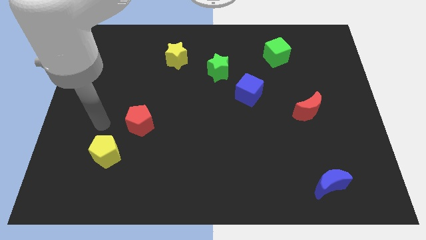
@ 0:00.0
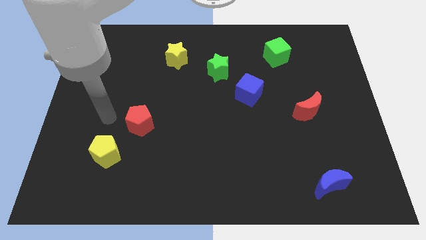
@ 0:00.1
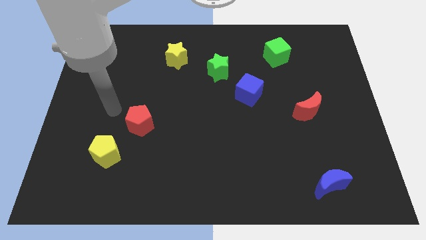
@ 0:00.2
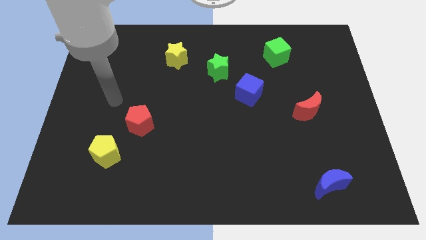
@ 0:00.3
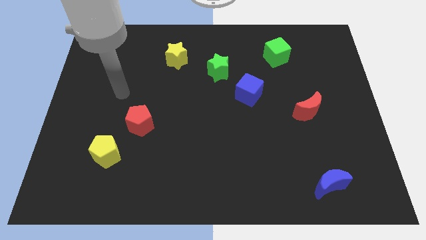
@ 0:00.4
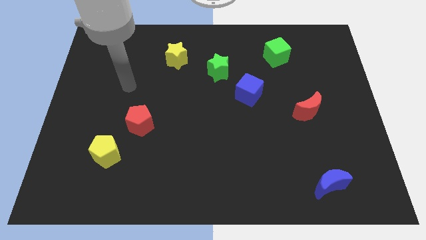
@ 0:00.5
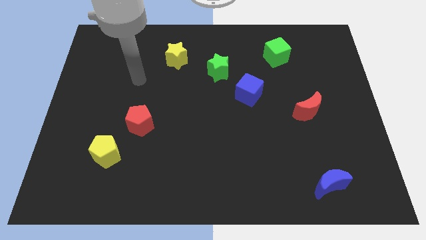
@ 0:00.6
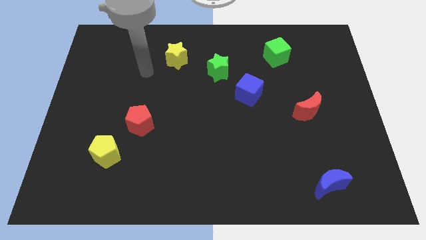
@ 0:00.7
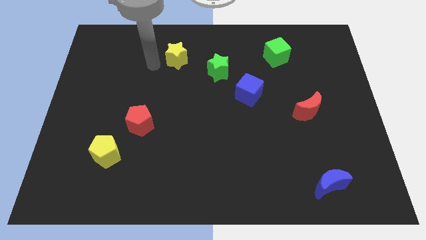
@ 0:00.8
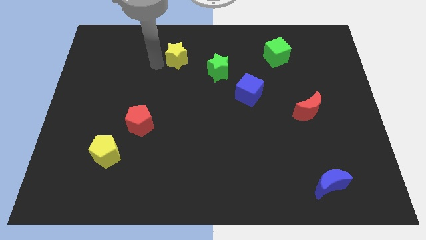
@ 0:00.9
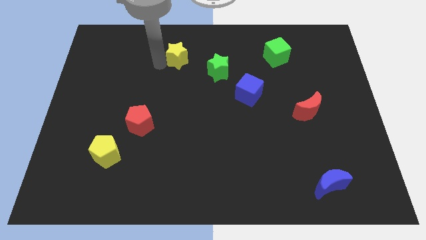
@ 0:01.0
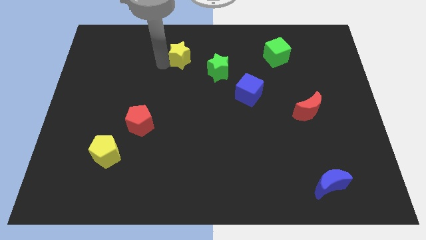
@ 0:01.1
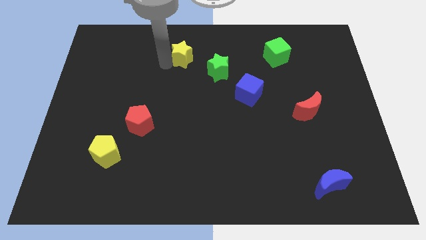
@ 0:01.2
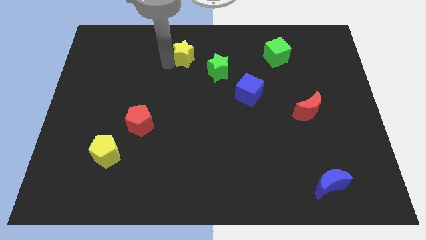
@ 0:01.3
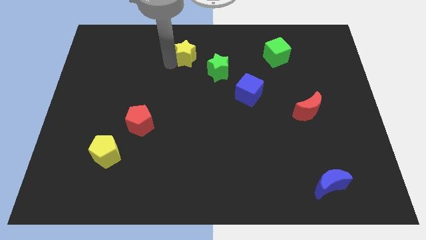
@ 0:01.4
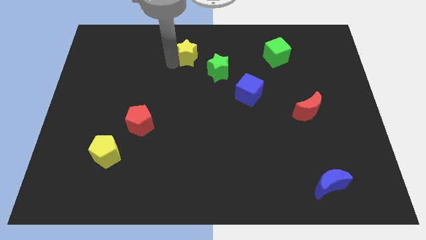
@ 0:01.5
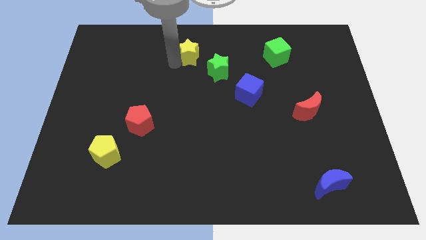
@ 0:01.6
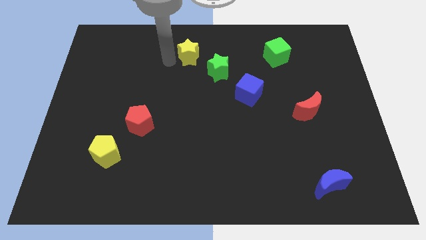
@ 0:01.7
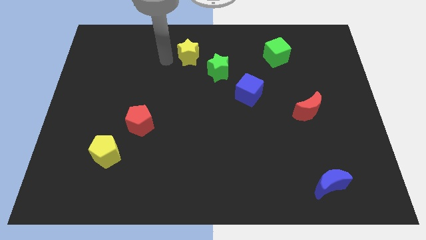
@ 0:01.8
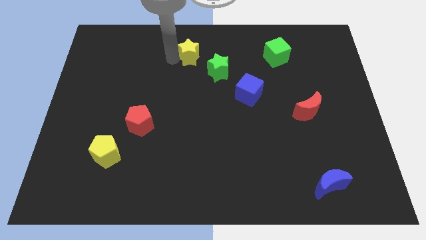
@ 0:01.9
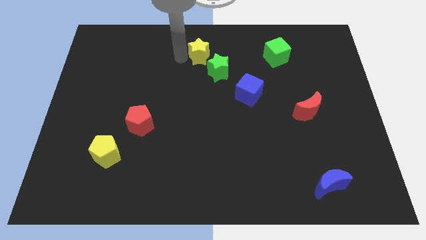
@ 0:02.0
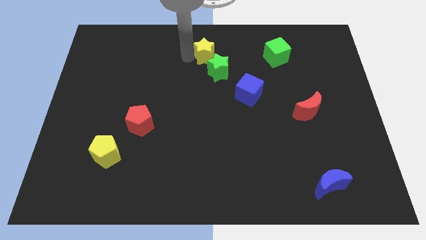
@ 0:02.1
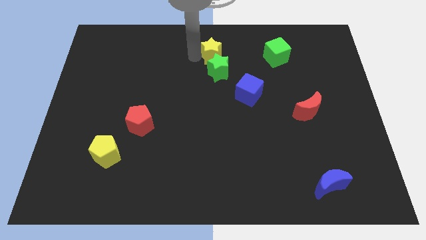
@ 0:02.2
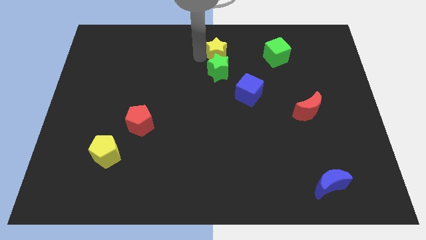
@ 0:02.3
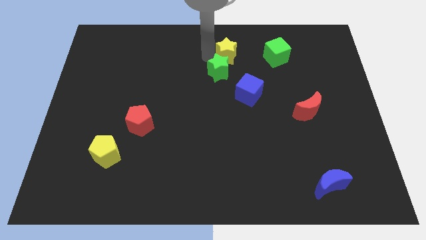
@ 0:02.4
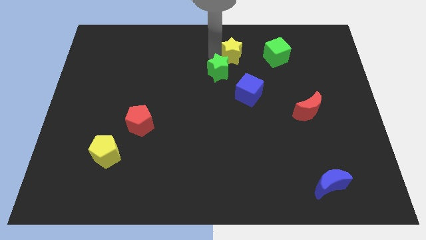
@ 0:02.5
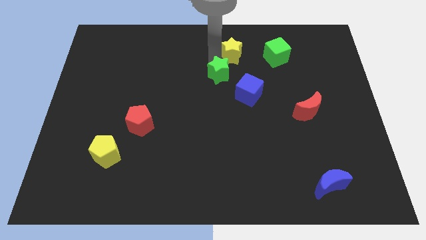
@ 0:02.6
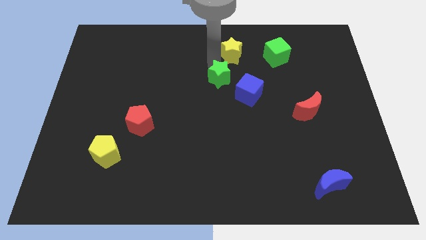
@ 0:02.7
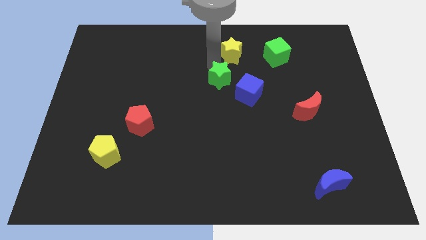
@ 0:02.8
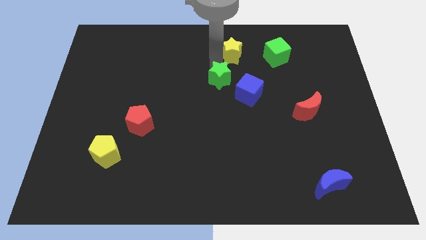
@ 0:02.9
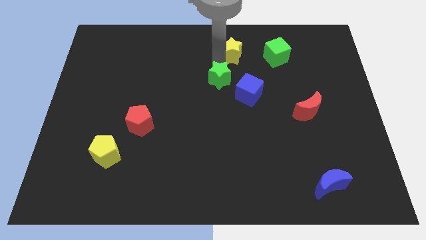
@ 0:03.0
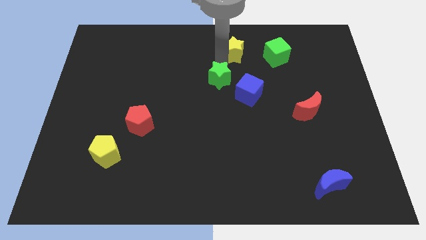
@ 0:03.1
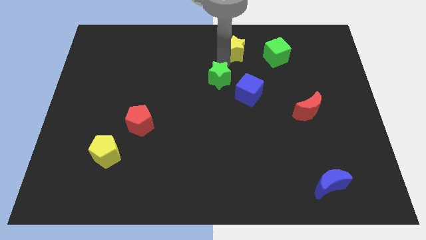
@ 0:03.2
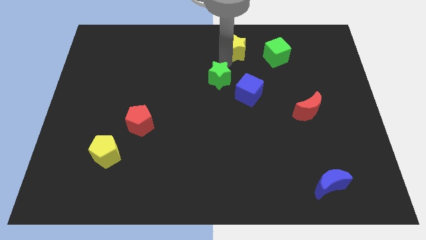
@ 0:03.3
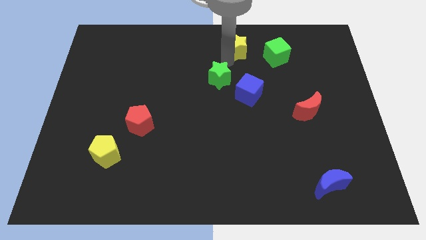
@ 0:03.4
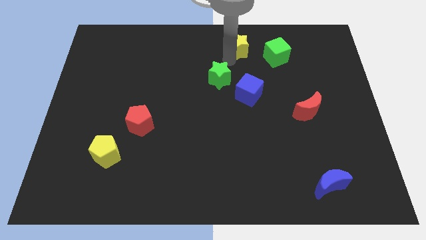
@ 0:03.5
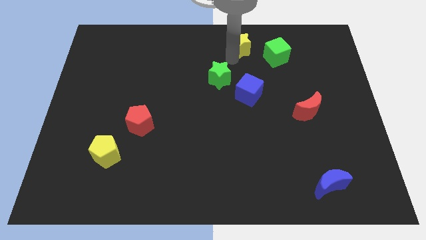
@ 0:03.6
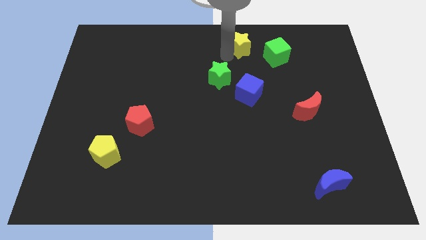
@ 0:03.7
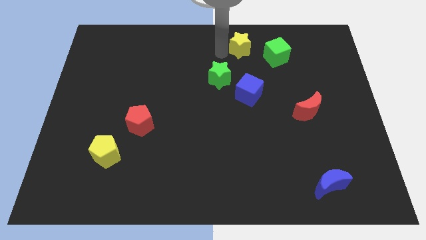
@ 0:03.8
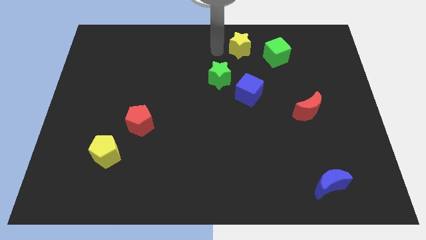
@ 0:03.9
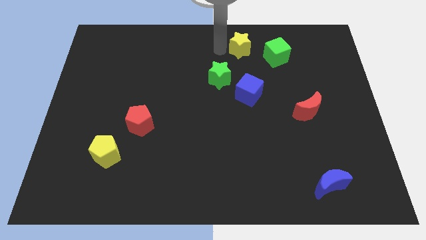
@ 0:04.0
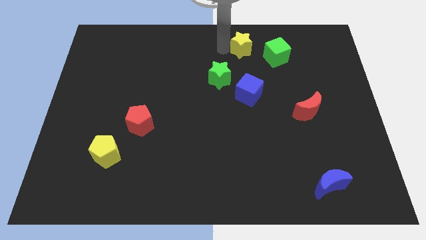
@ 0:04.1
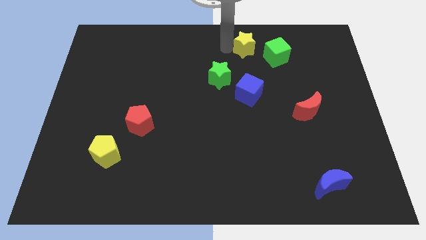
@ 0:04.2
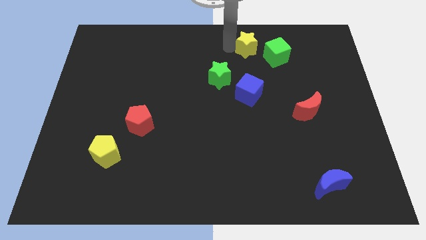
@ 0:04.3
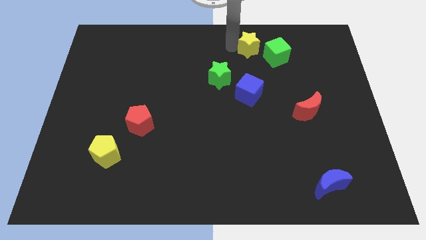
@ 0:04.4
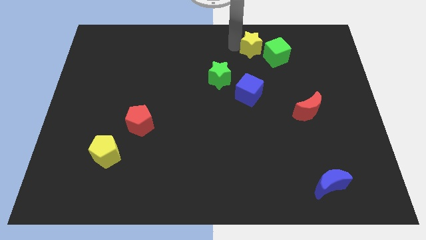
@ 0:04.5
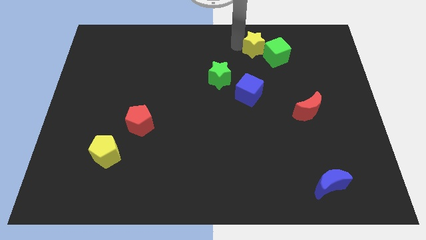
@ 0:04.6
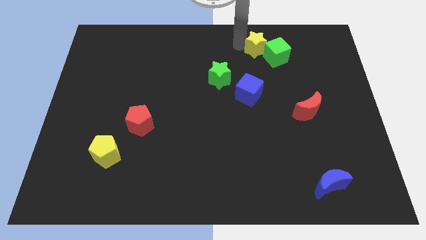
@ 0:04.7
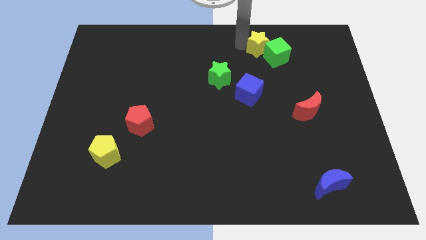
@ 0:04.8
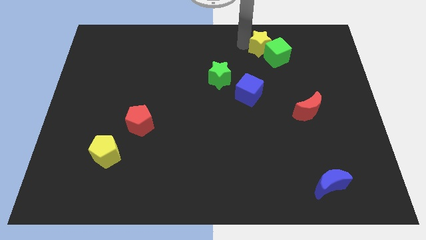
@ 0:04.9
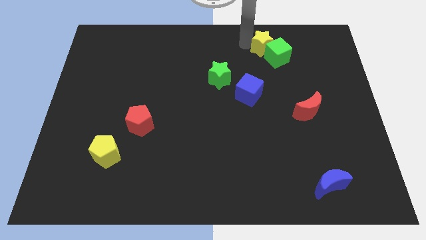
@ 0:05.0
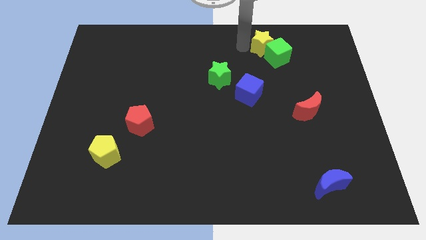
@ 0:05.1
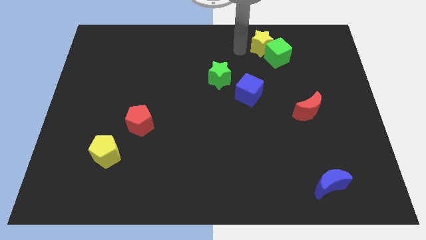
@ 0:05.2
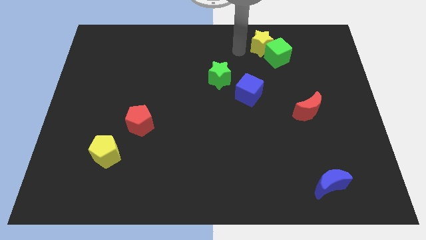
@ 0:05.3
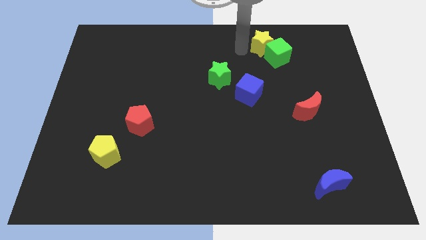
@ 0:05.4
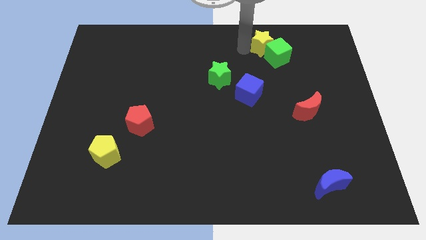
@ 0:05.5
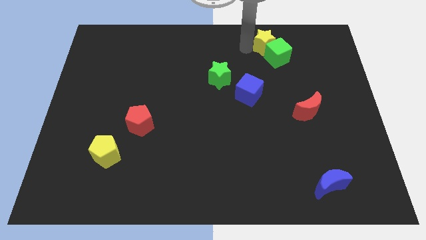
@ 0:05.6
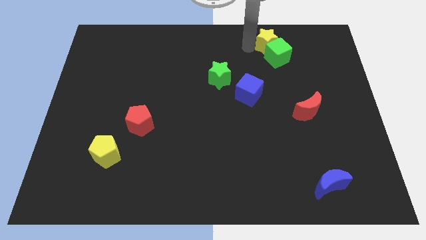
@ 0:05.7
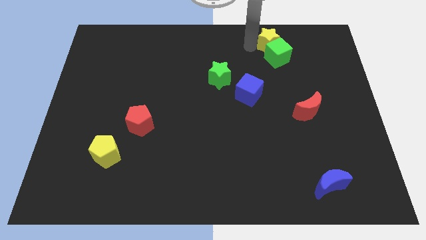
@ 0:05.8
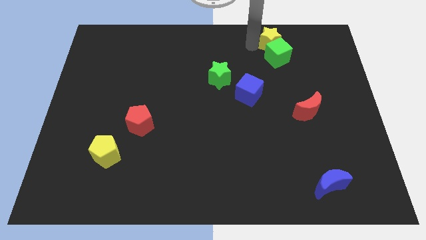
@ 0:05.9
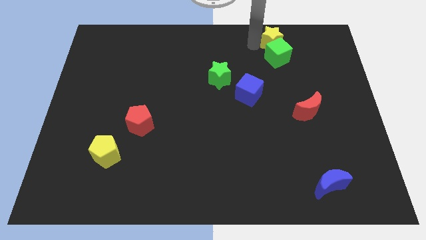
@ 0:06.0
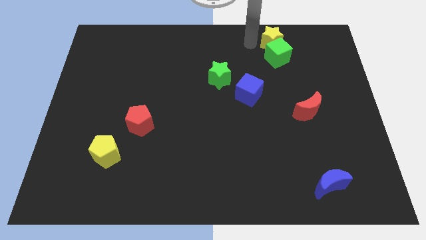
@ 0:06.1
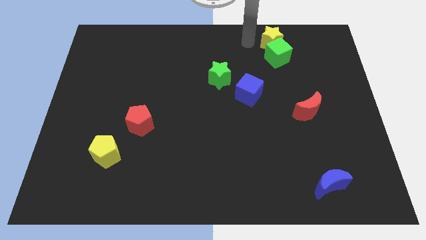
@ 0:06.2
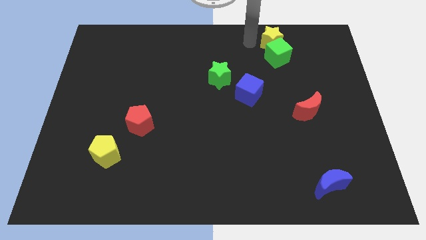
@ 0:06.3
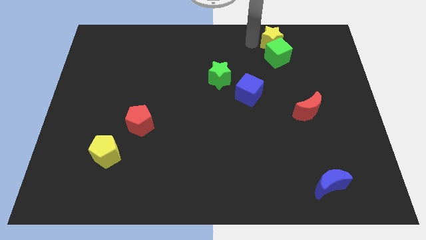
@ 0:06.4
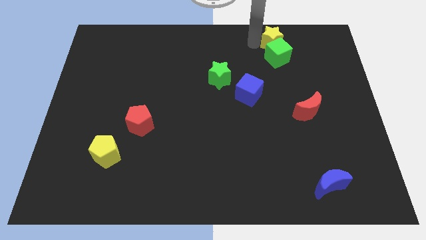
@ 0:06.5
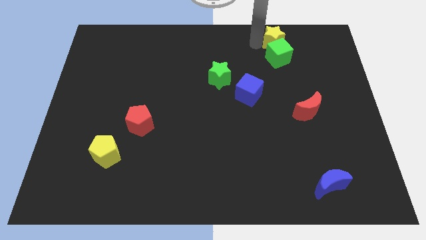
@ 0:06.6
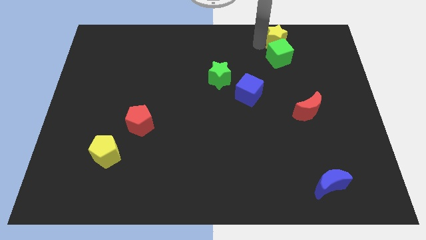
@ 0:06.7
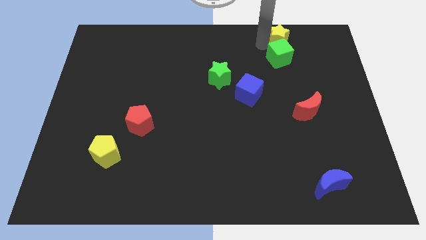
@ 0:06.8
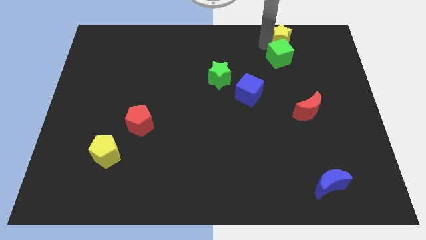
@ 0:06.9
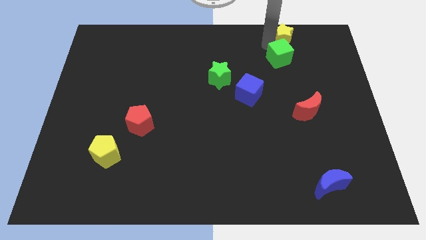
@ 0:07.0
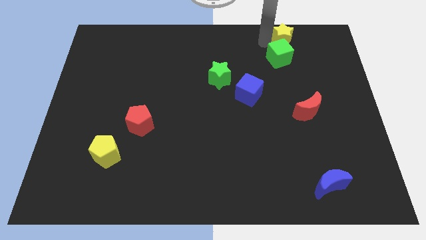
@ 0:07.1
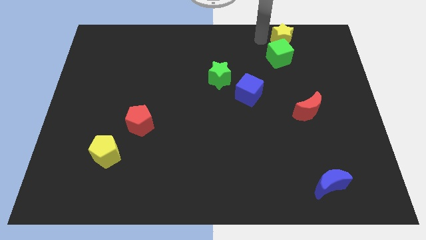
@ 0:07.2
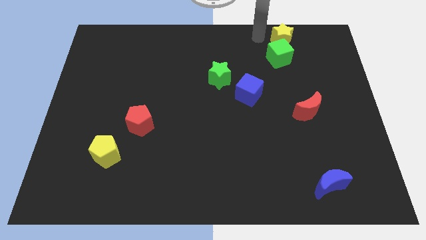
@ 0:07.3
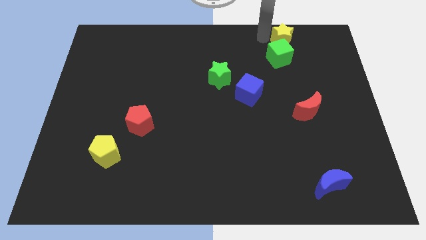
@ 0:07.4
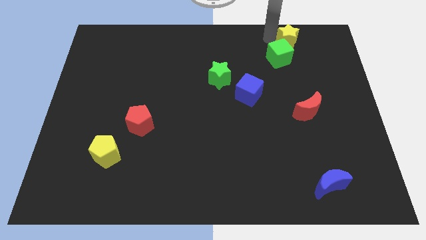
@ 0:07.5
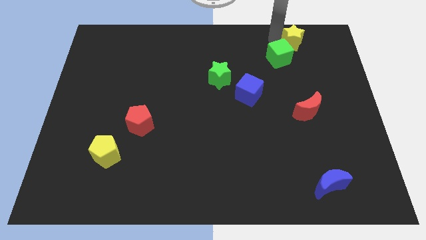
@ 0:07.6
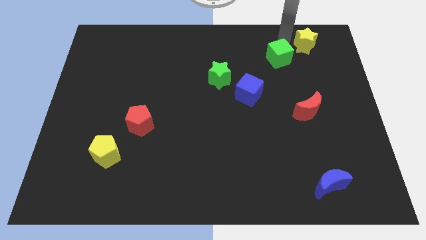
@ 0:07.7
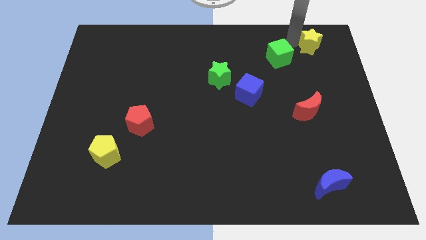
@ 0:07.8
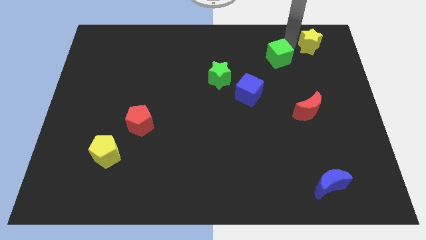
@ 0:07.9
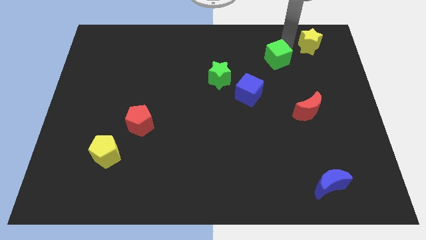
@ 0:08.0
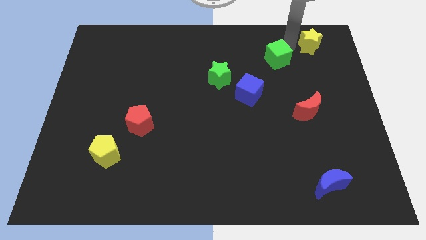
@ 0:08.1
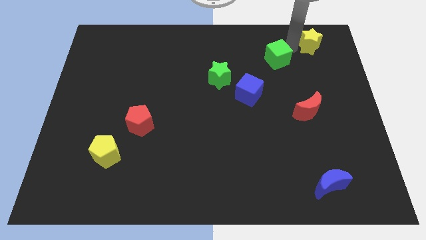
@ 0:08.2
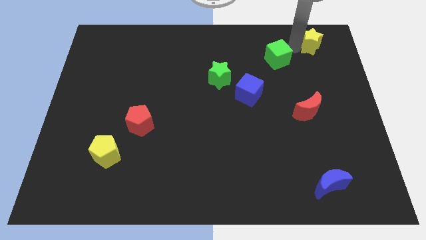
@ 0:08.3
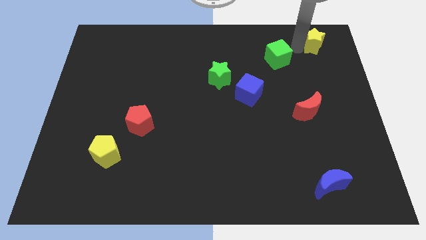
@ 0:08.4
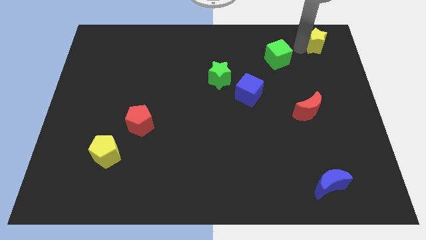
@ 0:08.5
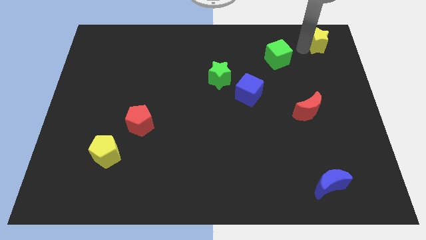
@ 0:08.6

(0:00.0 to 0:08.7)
move the yellow star to the upper right corner
